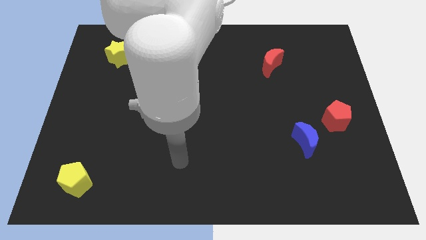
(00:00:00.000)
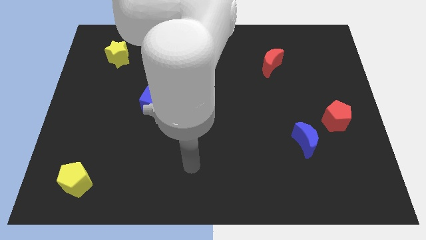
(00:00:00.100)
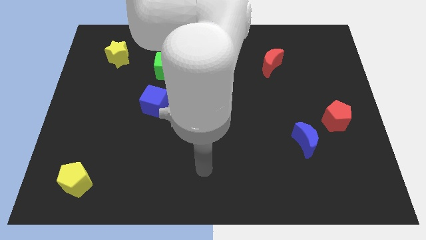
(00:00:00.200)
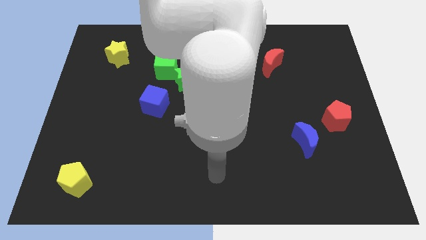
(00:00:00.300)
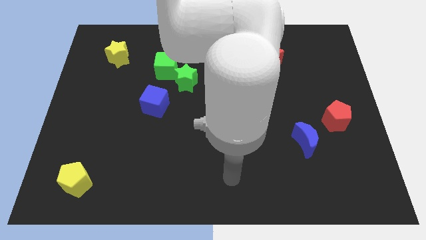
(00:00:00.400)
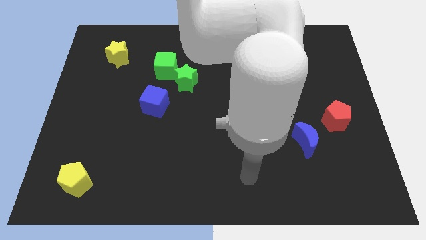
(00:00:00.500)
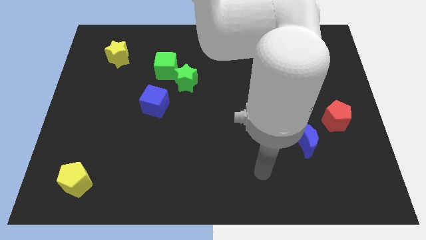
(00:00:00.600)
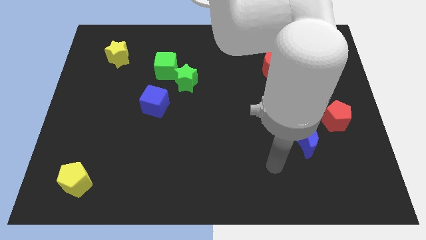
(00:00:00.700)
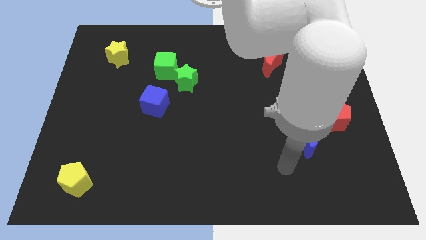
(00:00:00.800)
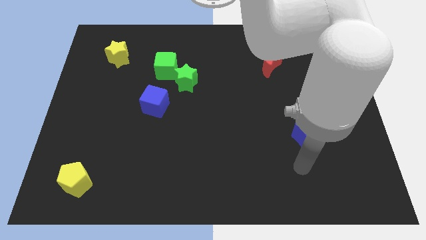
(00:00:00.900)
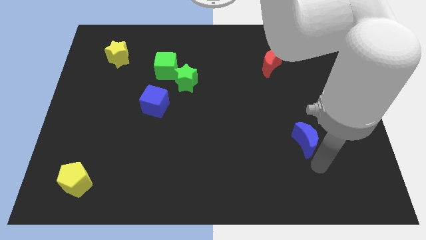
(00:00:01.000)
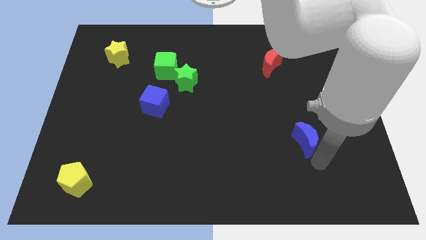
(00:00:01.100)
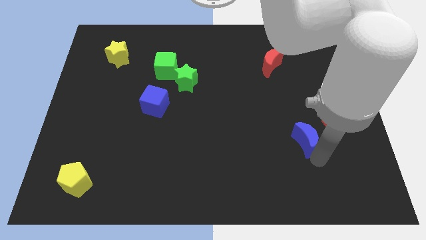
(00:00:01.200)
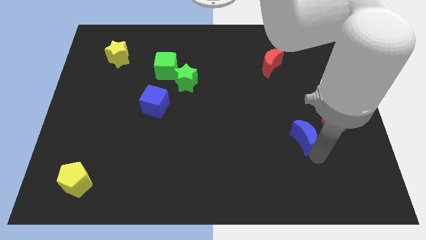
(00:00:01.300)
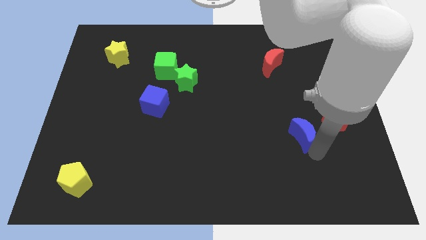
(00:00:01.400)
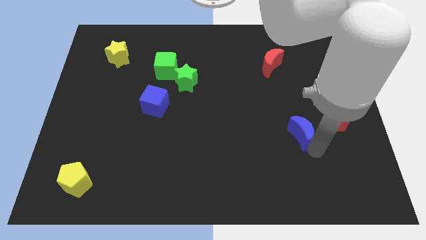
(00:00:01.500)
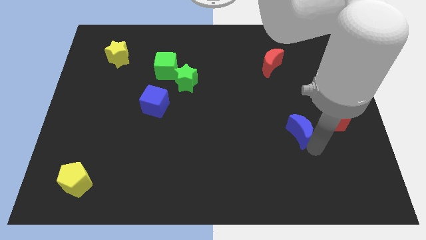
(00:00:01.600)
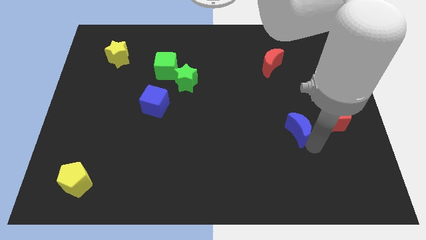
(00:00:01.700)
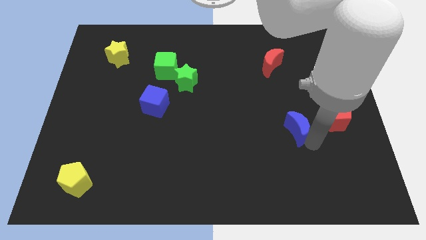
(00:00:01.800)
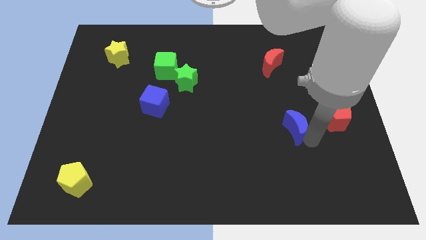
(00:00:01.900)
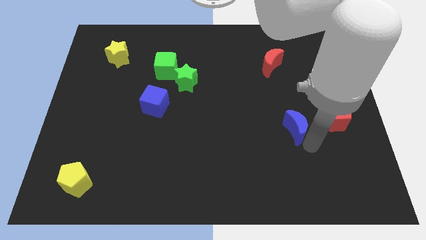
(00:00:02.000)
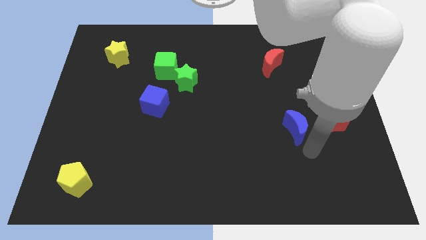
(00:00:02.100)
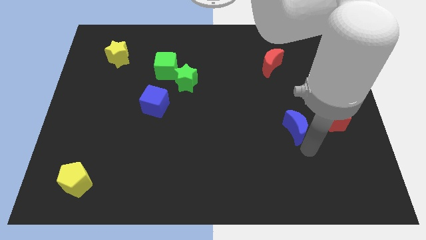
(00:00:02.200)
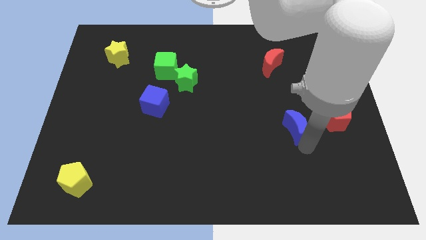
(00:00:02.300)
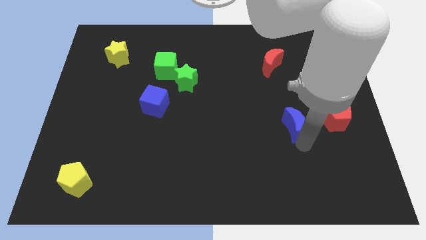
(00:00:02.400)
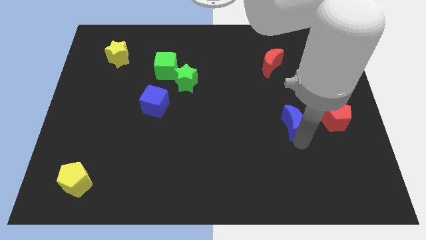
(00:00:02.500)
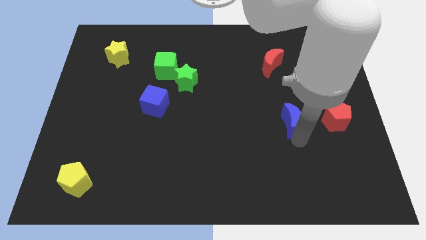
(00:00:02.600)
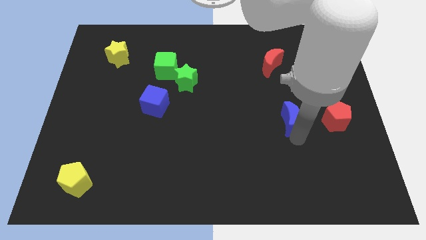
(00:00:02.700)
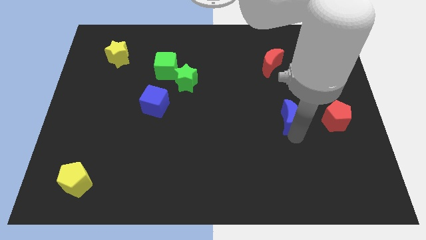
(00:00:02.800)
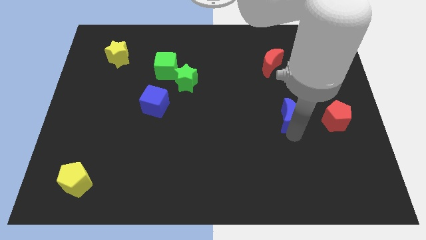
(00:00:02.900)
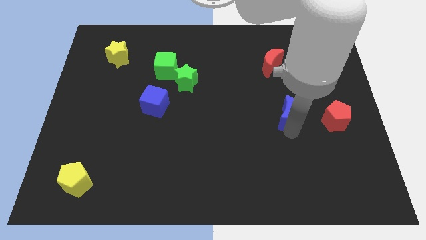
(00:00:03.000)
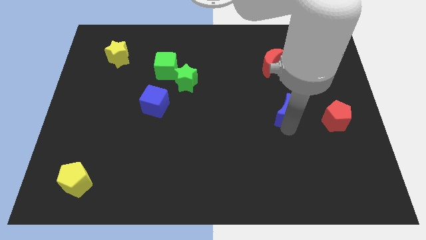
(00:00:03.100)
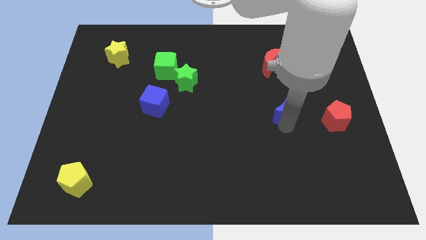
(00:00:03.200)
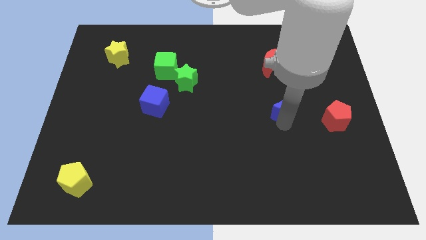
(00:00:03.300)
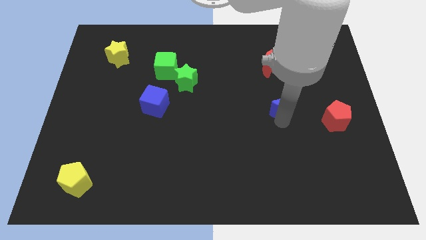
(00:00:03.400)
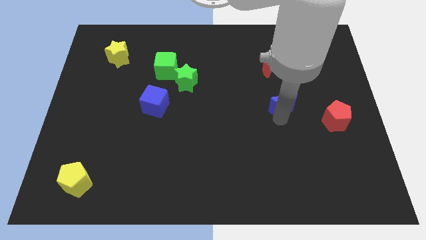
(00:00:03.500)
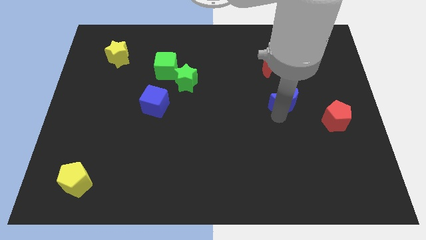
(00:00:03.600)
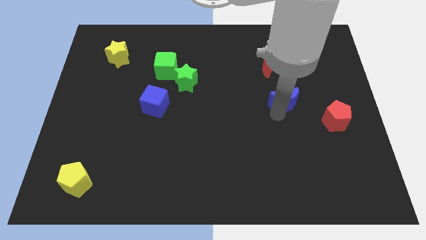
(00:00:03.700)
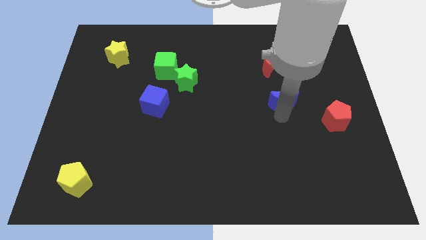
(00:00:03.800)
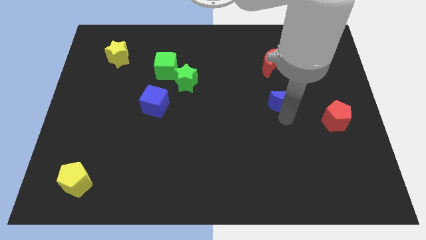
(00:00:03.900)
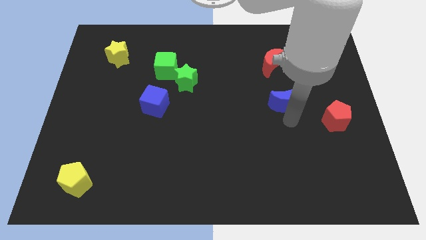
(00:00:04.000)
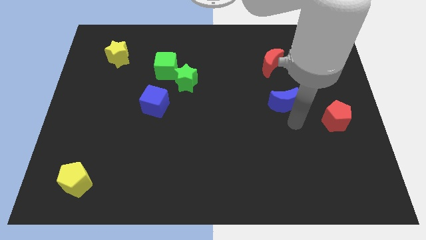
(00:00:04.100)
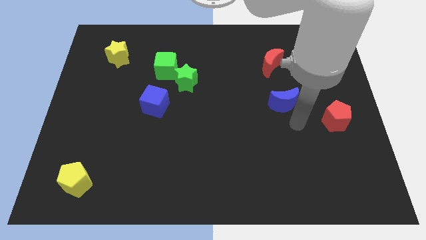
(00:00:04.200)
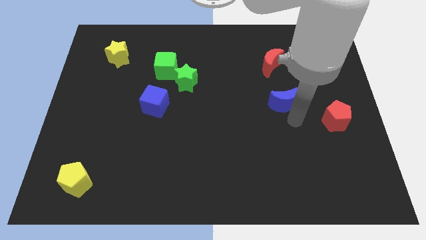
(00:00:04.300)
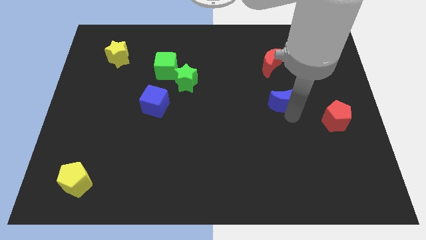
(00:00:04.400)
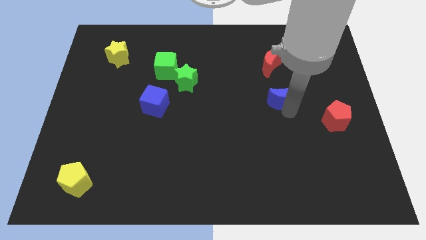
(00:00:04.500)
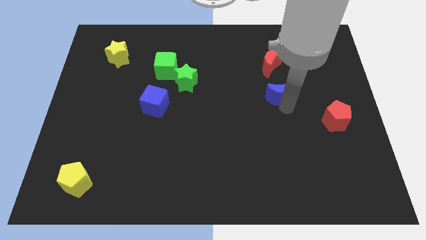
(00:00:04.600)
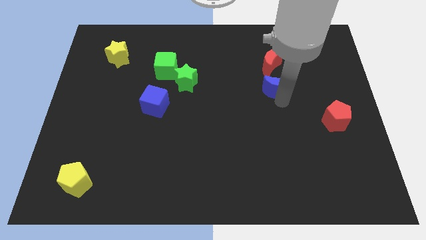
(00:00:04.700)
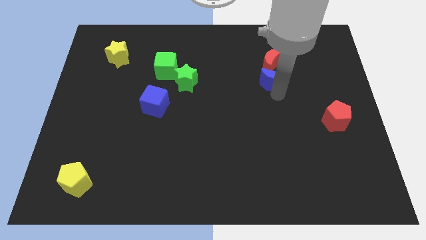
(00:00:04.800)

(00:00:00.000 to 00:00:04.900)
push the blue moon close to the red moon

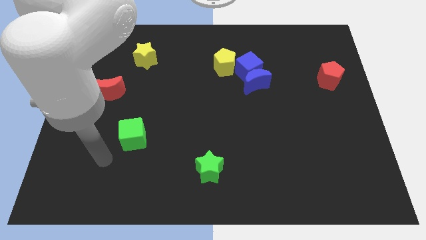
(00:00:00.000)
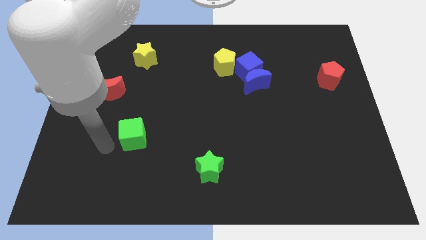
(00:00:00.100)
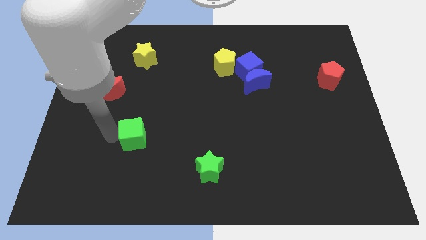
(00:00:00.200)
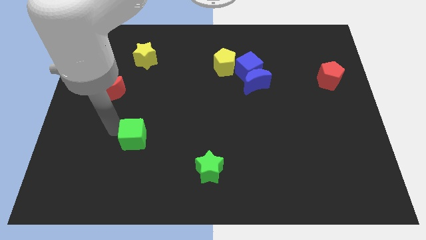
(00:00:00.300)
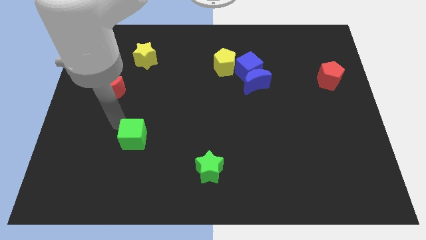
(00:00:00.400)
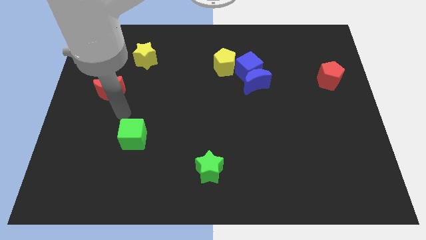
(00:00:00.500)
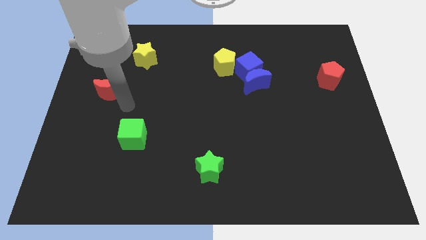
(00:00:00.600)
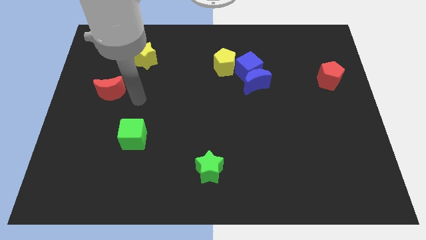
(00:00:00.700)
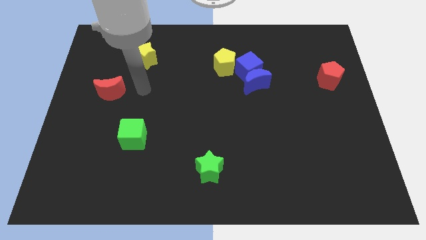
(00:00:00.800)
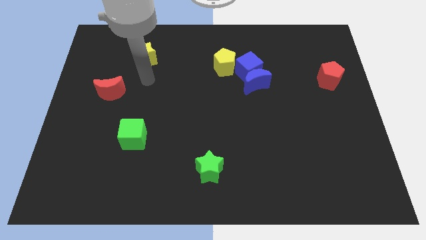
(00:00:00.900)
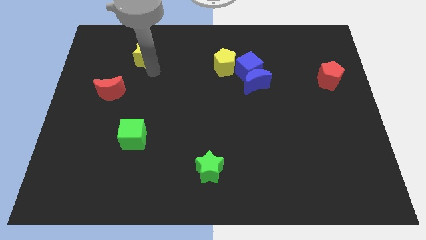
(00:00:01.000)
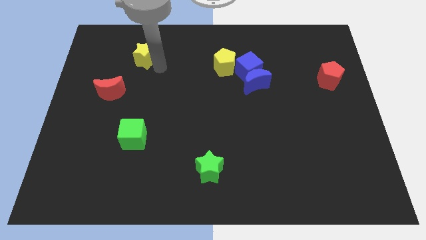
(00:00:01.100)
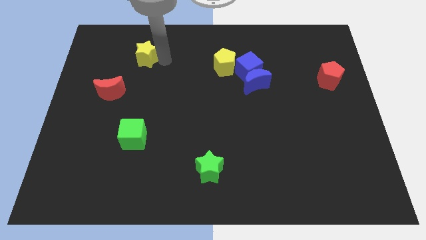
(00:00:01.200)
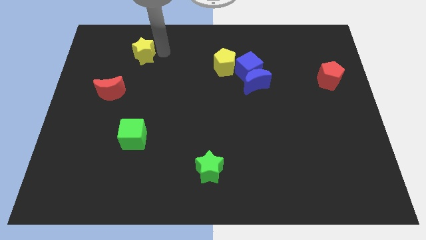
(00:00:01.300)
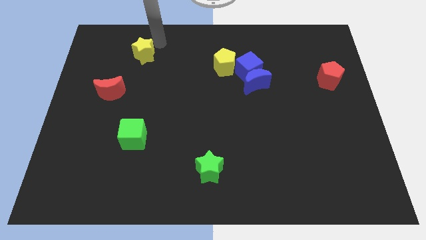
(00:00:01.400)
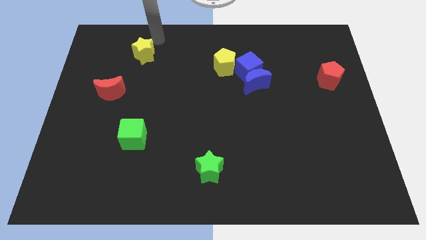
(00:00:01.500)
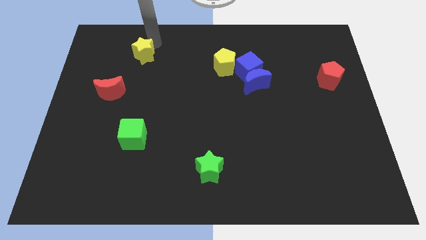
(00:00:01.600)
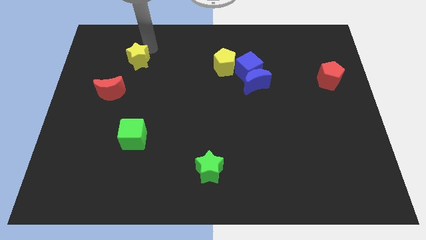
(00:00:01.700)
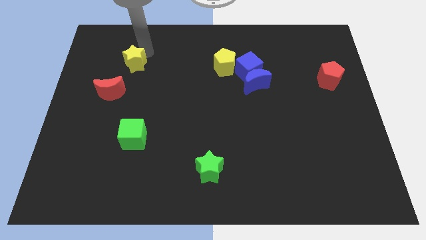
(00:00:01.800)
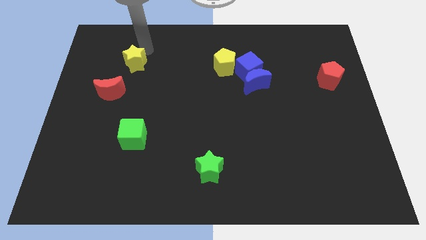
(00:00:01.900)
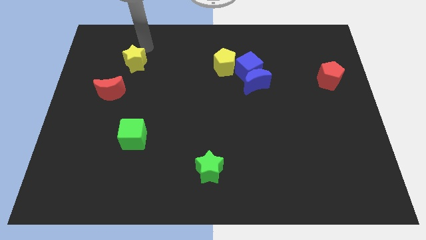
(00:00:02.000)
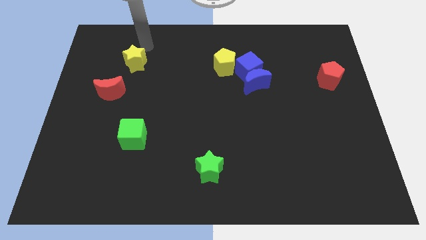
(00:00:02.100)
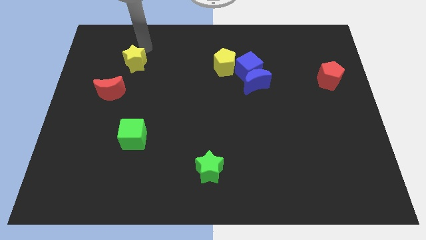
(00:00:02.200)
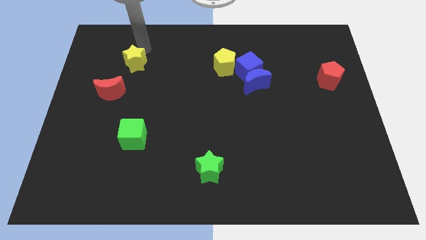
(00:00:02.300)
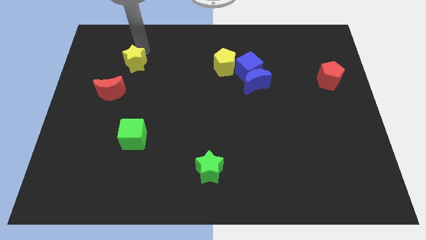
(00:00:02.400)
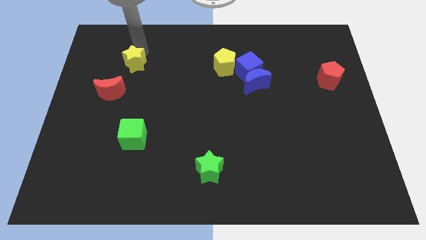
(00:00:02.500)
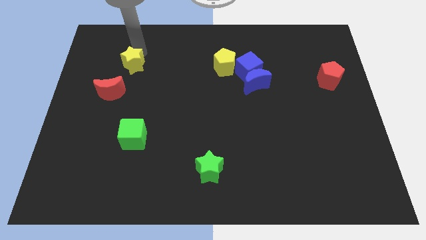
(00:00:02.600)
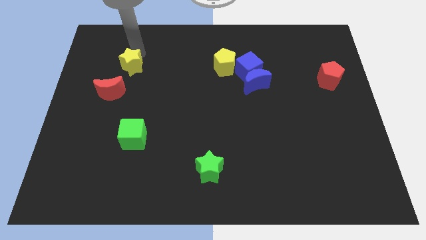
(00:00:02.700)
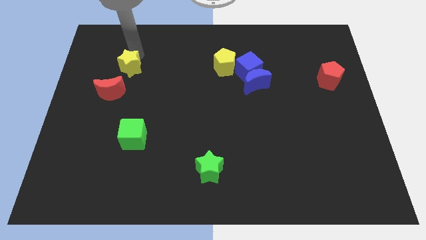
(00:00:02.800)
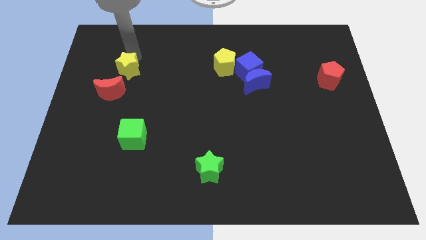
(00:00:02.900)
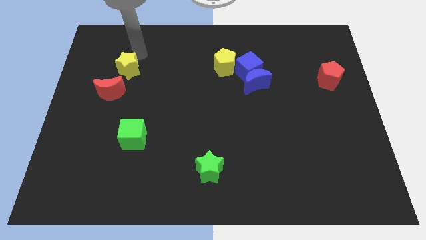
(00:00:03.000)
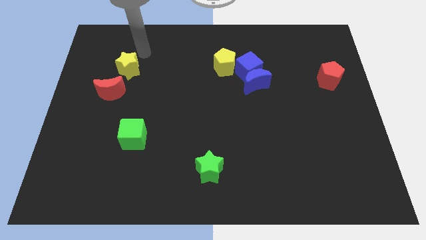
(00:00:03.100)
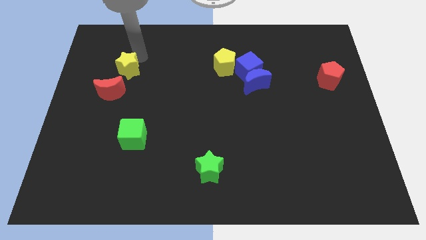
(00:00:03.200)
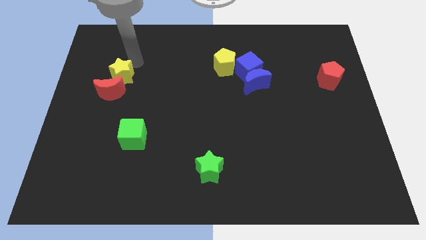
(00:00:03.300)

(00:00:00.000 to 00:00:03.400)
slide the yellow star towards the red moon
